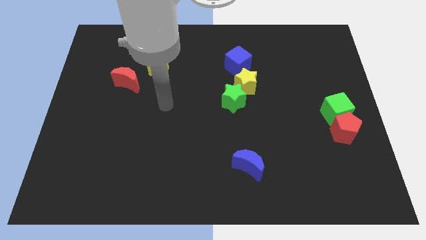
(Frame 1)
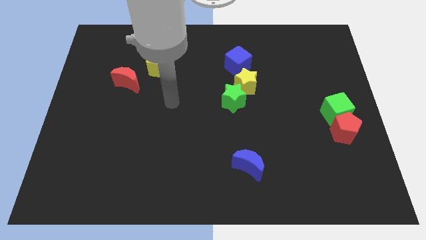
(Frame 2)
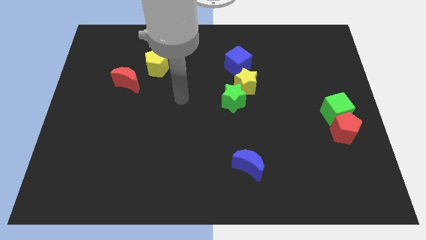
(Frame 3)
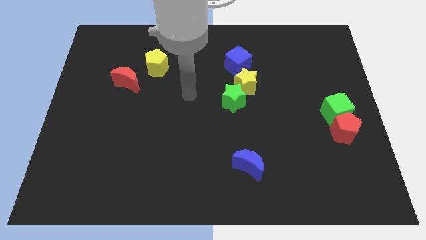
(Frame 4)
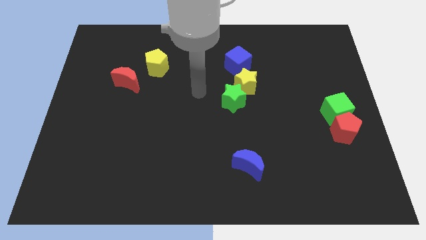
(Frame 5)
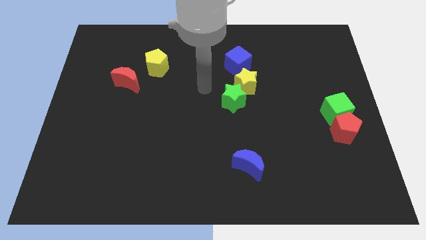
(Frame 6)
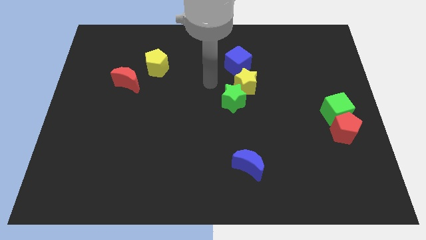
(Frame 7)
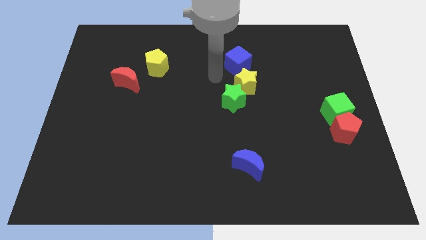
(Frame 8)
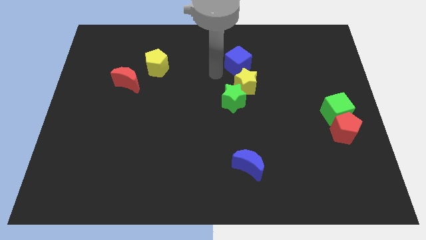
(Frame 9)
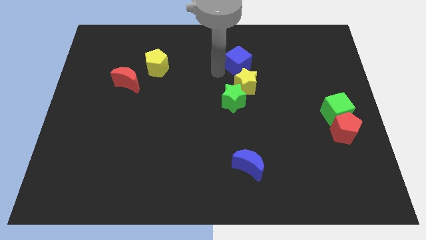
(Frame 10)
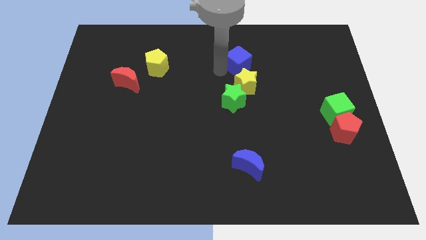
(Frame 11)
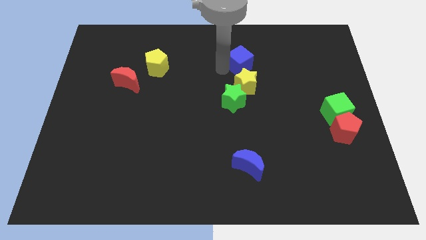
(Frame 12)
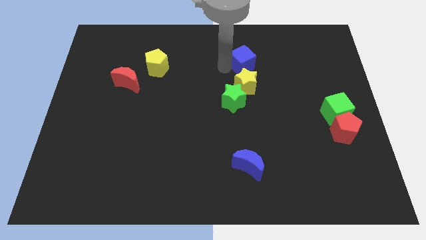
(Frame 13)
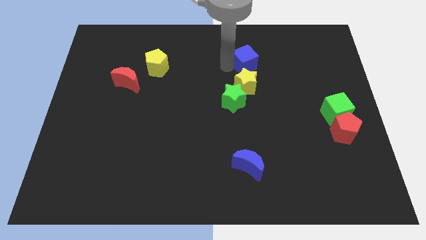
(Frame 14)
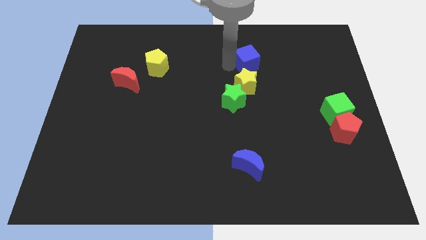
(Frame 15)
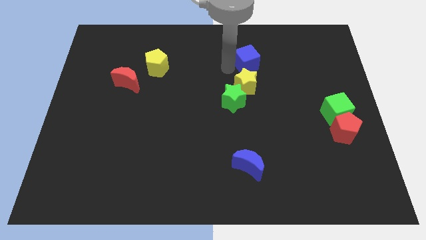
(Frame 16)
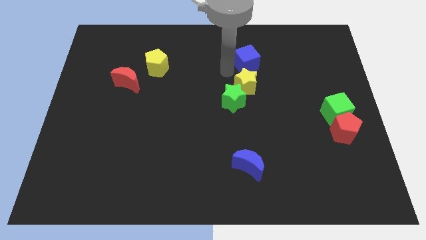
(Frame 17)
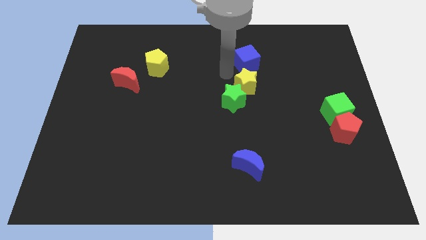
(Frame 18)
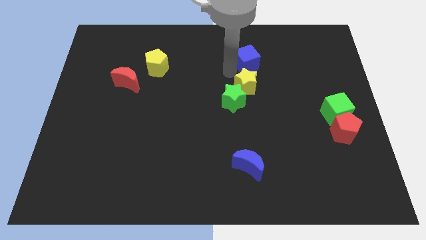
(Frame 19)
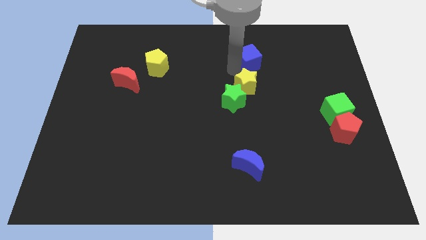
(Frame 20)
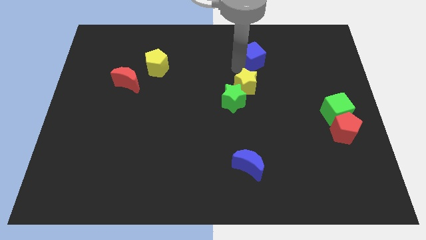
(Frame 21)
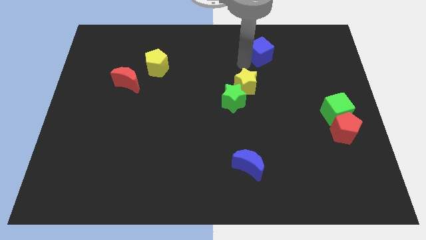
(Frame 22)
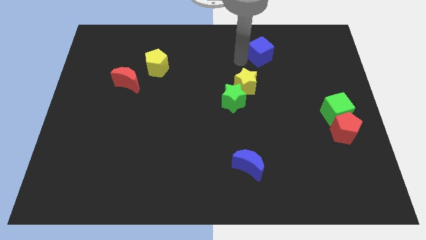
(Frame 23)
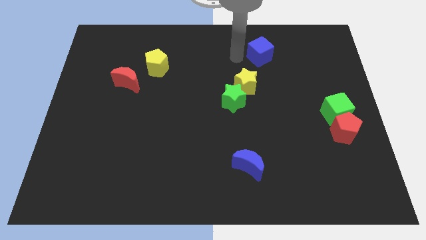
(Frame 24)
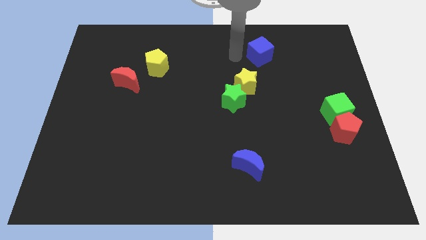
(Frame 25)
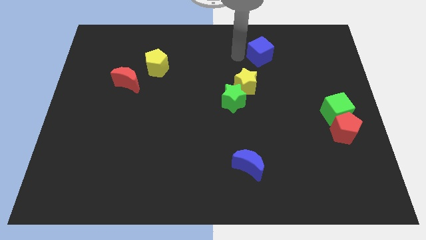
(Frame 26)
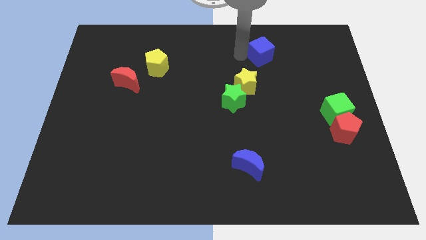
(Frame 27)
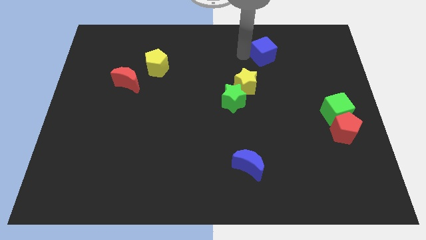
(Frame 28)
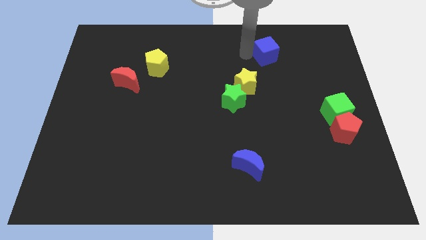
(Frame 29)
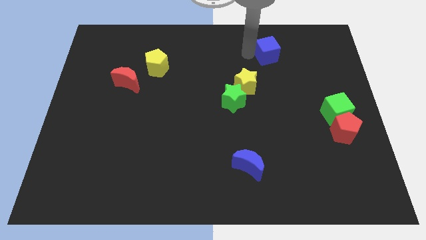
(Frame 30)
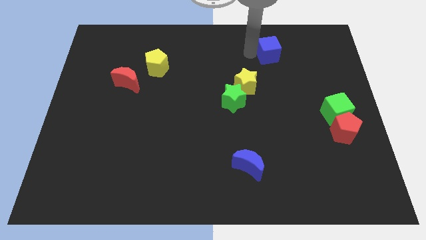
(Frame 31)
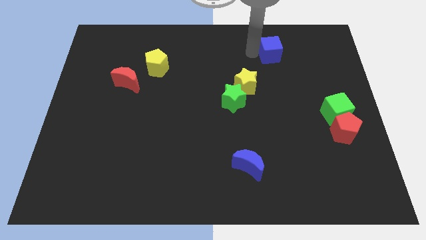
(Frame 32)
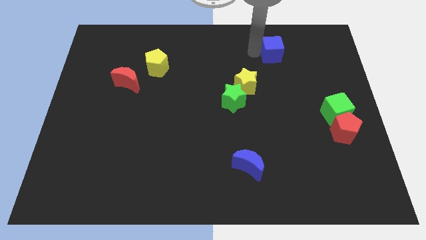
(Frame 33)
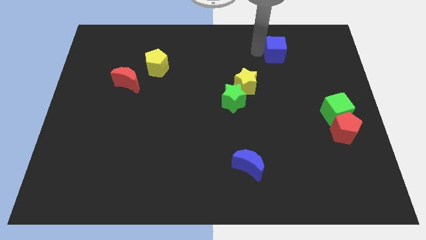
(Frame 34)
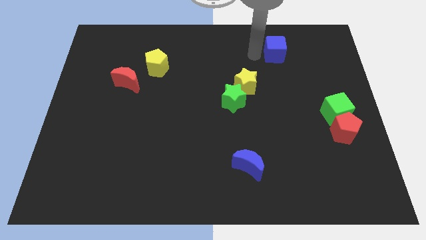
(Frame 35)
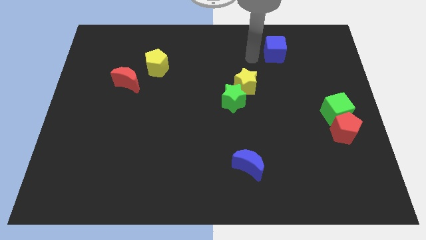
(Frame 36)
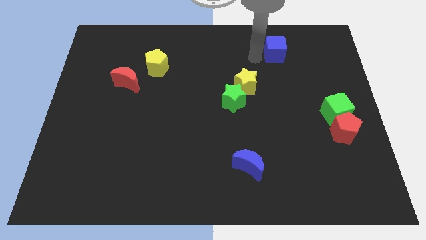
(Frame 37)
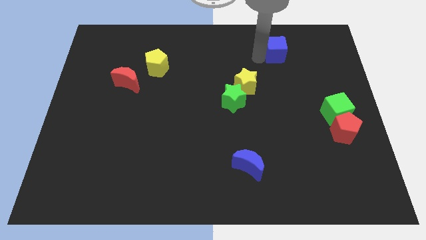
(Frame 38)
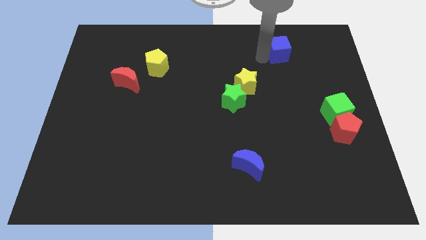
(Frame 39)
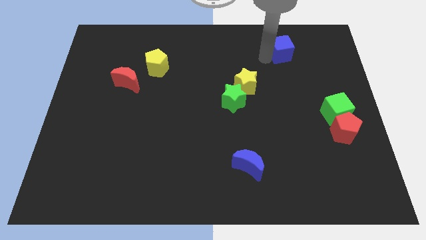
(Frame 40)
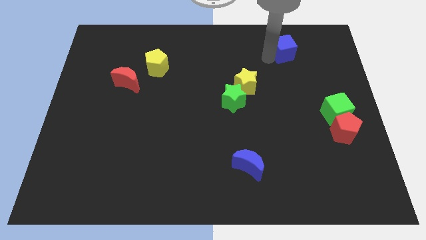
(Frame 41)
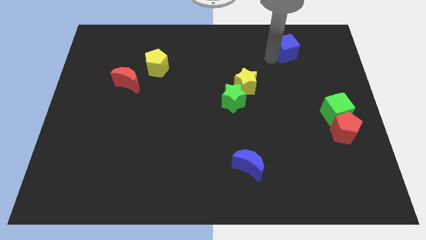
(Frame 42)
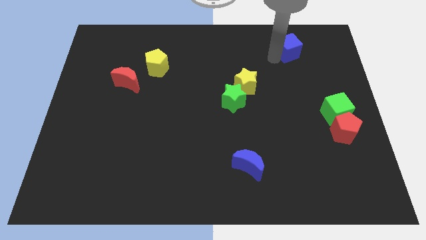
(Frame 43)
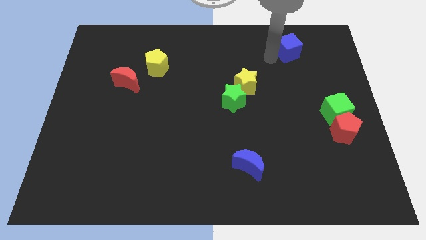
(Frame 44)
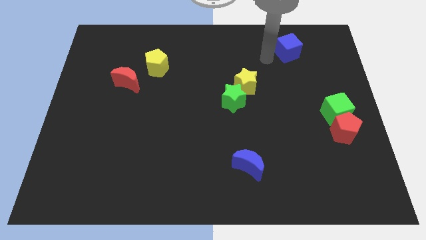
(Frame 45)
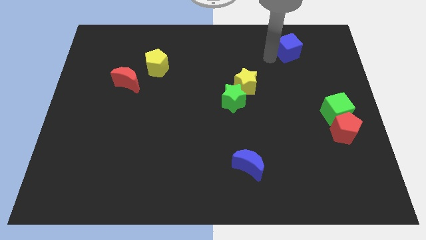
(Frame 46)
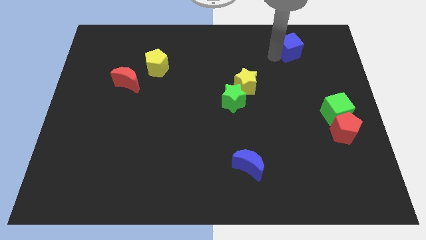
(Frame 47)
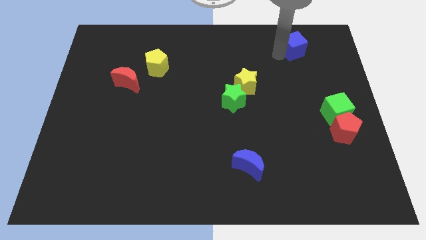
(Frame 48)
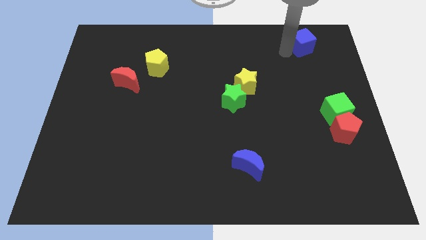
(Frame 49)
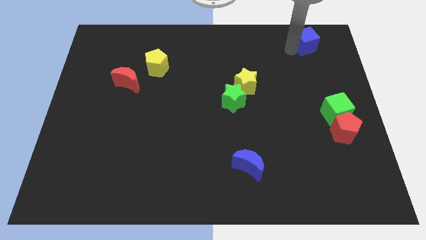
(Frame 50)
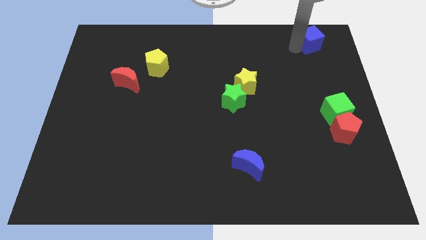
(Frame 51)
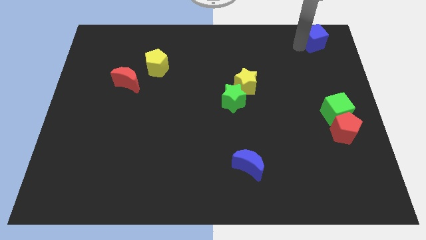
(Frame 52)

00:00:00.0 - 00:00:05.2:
slide the blue cube to the top right corner

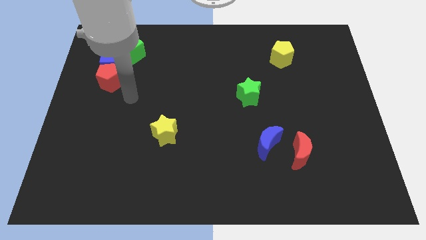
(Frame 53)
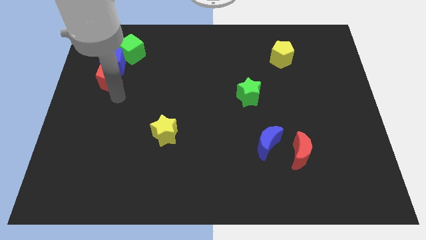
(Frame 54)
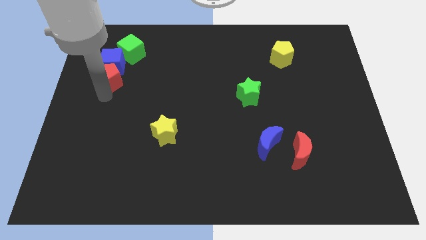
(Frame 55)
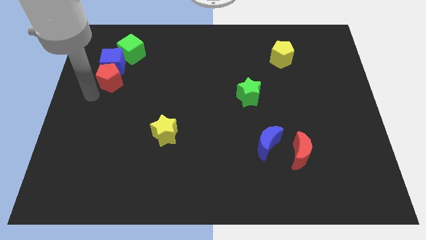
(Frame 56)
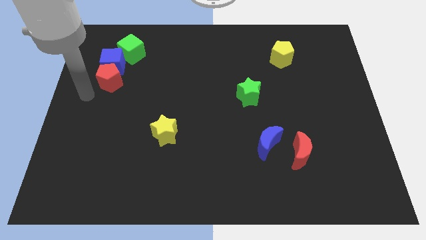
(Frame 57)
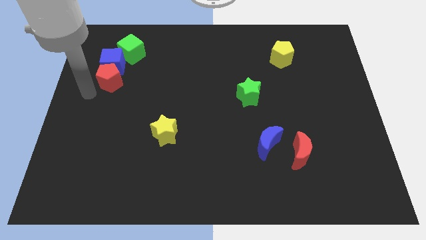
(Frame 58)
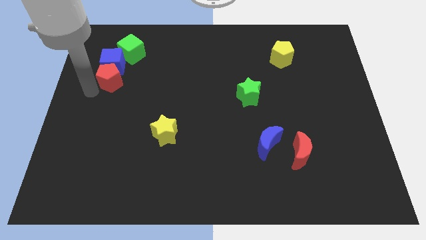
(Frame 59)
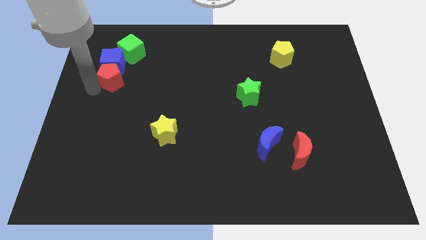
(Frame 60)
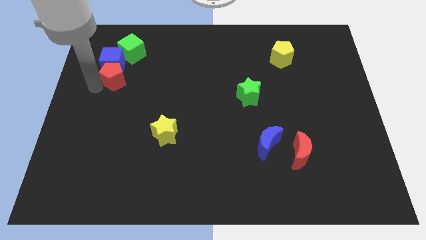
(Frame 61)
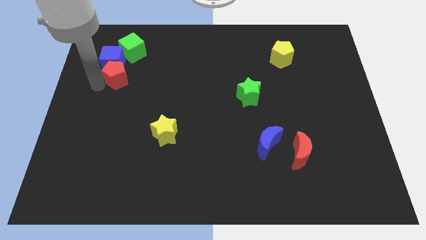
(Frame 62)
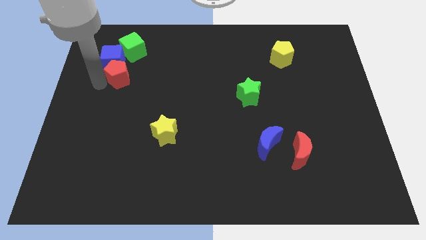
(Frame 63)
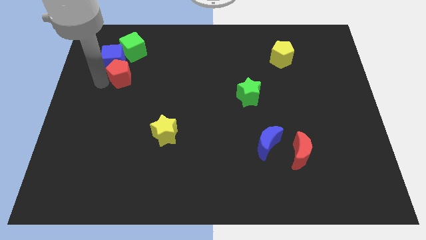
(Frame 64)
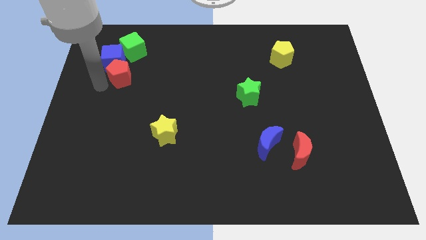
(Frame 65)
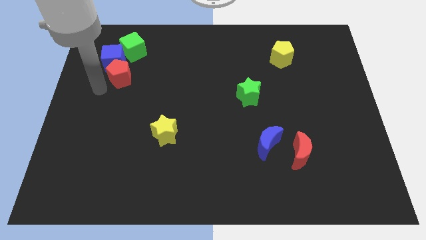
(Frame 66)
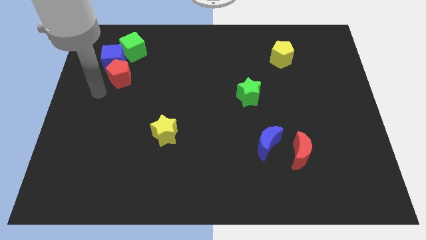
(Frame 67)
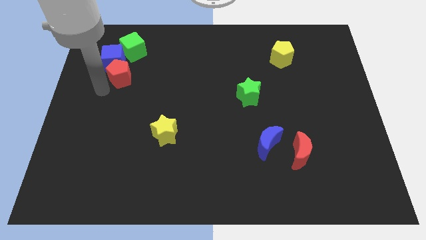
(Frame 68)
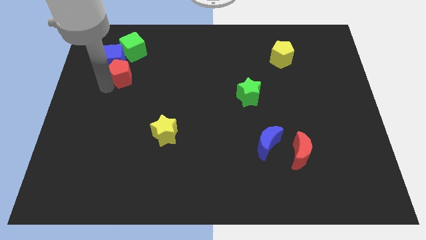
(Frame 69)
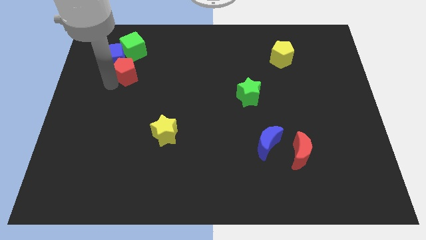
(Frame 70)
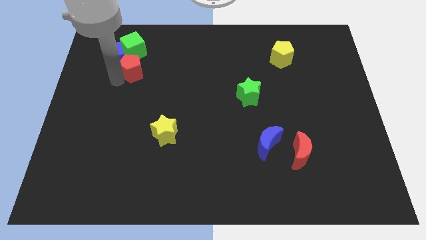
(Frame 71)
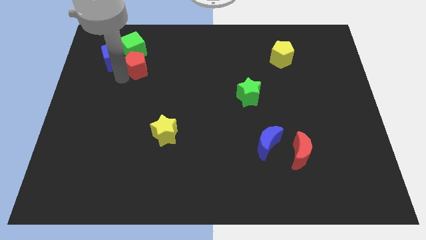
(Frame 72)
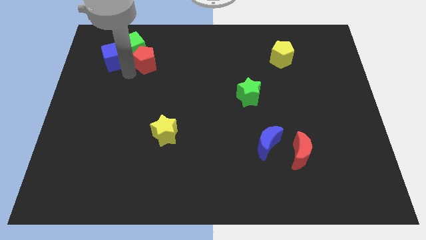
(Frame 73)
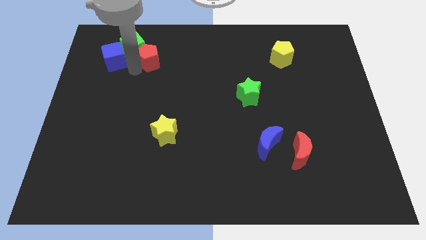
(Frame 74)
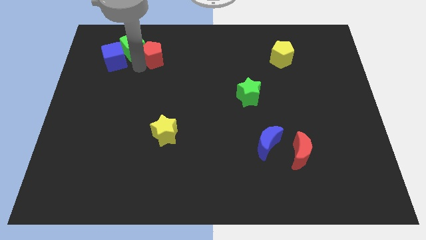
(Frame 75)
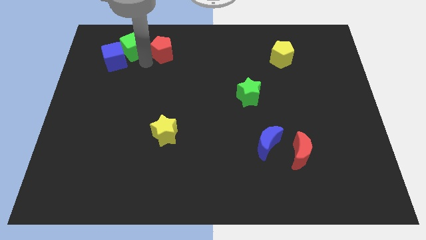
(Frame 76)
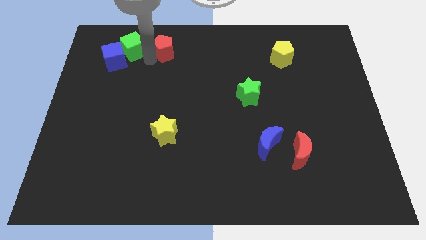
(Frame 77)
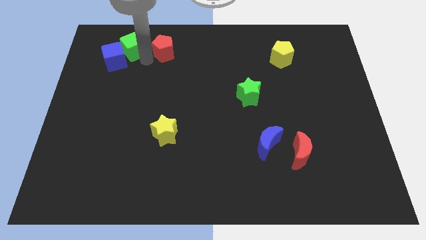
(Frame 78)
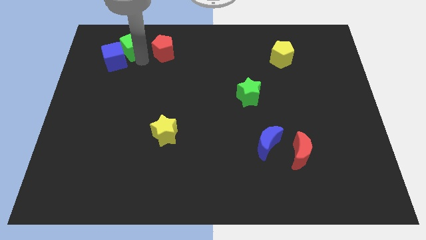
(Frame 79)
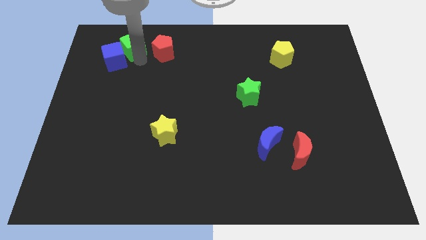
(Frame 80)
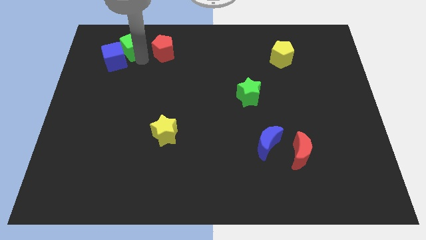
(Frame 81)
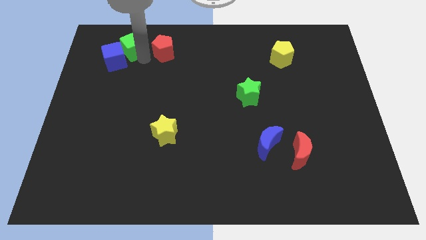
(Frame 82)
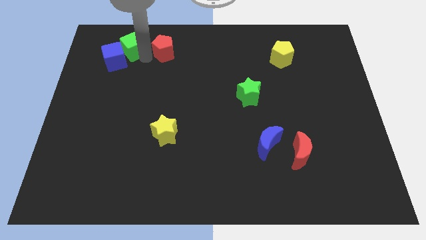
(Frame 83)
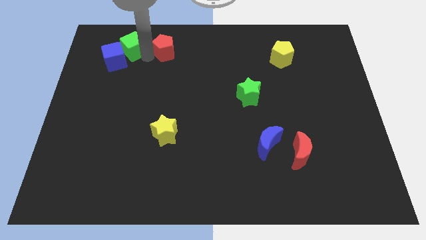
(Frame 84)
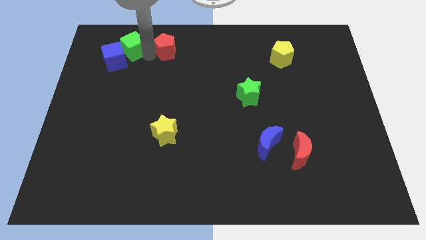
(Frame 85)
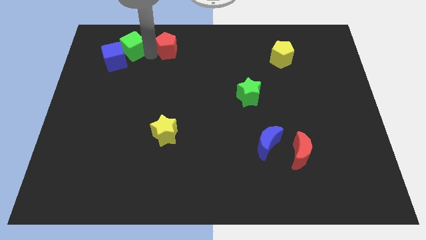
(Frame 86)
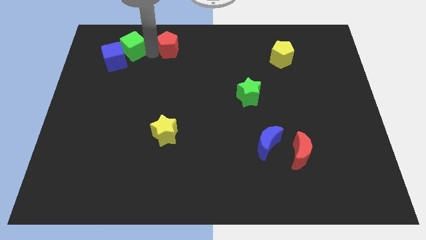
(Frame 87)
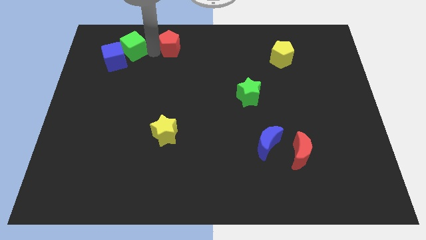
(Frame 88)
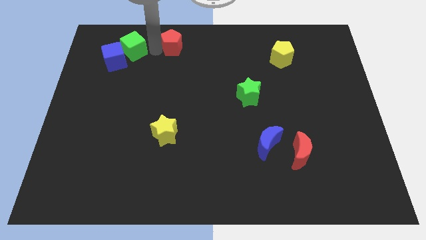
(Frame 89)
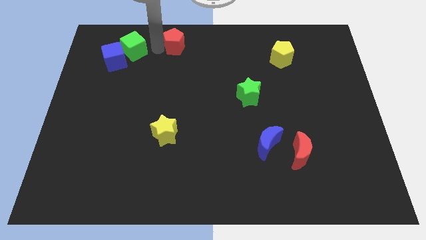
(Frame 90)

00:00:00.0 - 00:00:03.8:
push the red pentagon to the top side
